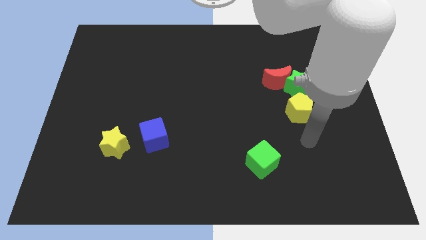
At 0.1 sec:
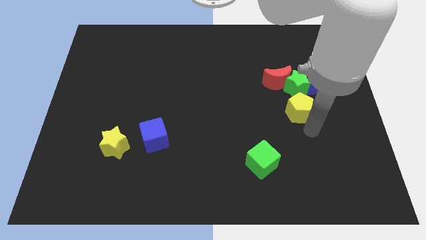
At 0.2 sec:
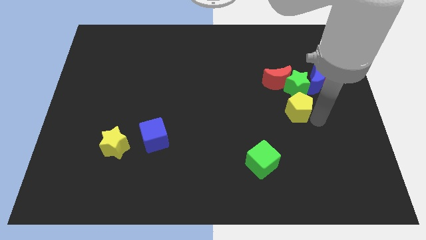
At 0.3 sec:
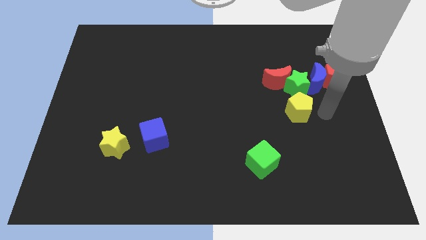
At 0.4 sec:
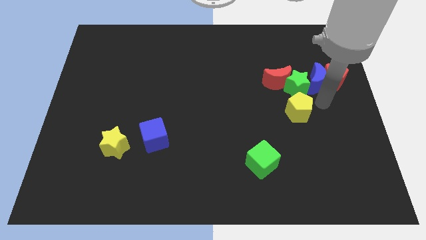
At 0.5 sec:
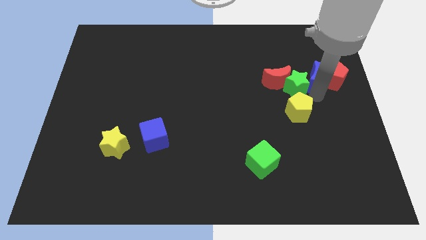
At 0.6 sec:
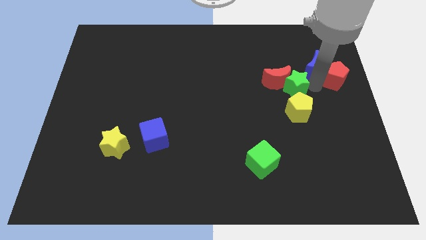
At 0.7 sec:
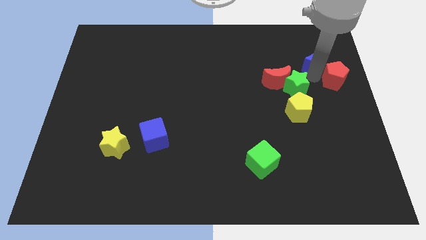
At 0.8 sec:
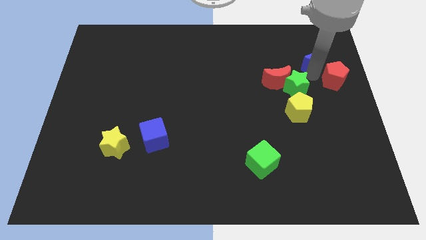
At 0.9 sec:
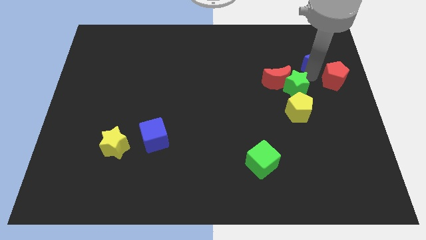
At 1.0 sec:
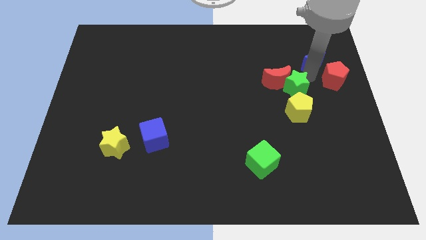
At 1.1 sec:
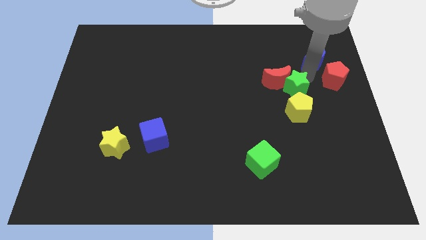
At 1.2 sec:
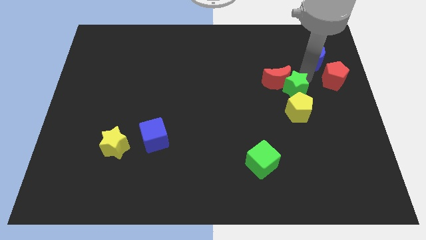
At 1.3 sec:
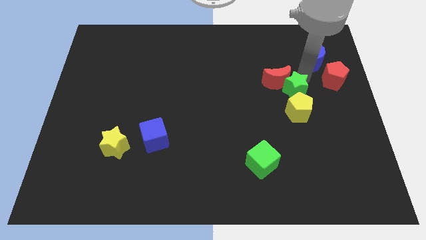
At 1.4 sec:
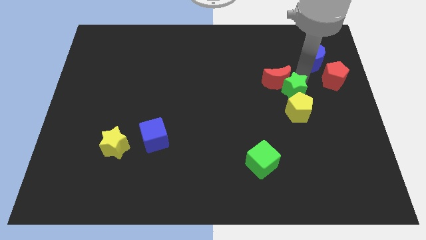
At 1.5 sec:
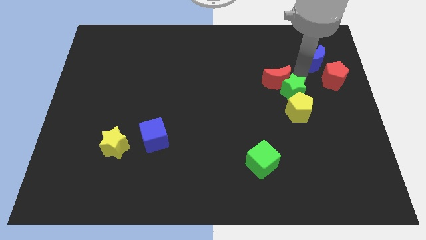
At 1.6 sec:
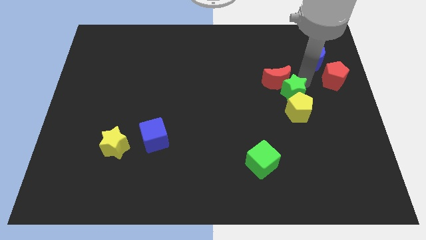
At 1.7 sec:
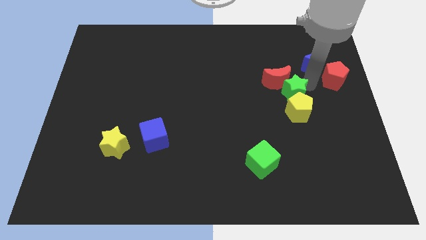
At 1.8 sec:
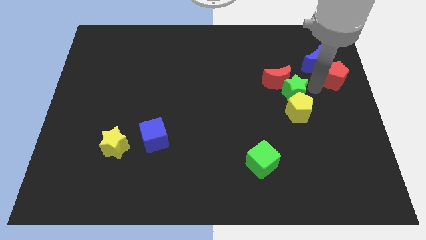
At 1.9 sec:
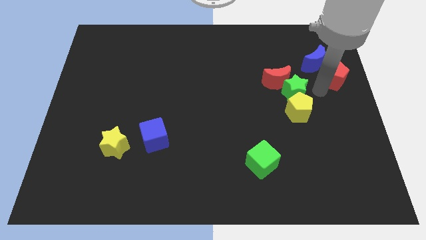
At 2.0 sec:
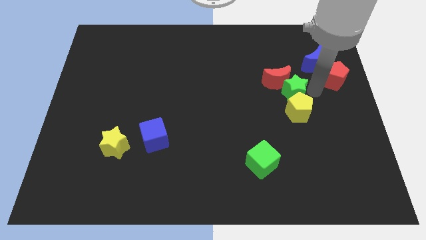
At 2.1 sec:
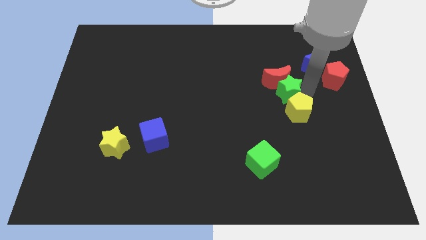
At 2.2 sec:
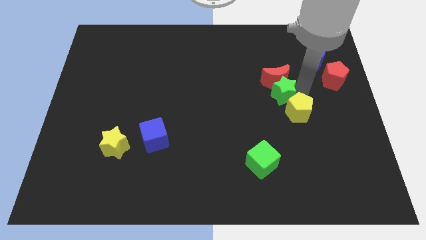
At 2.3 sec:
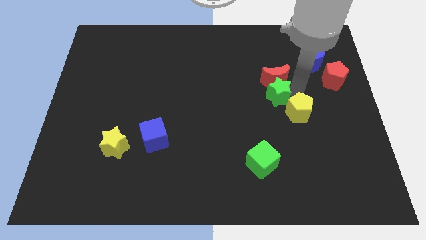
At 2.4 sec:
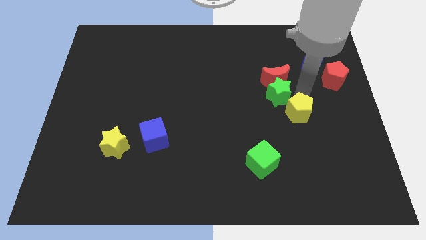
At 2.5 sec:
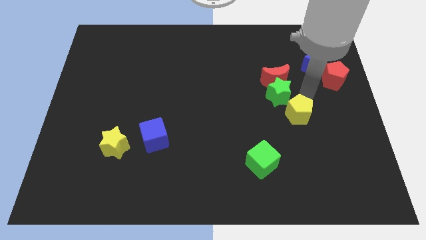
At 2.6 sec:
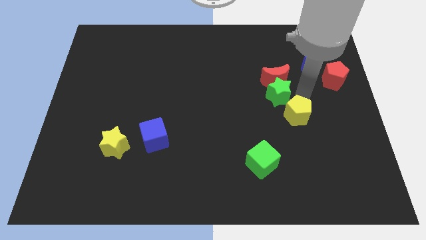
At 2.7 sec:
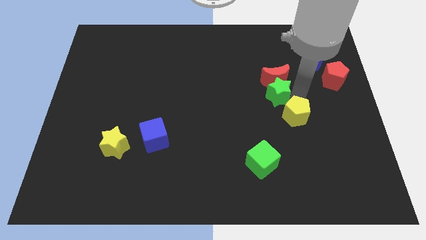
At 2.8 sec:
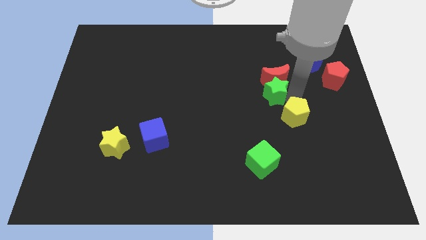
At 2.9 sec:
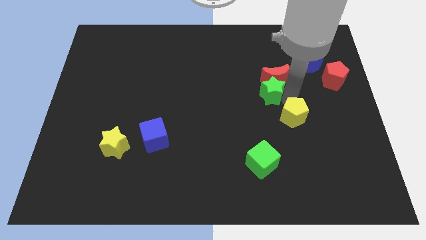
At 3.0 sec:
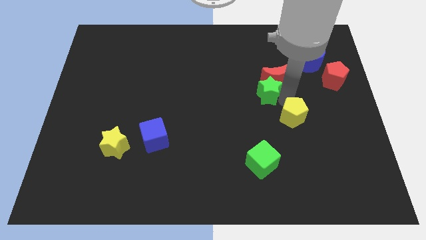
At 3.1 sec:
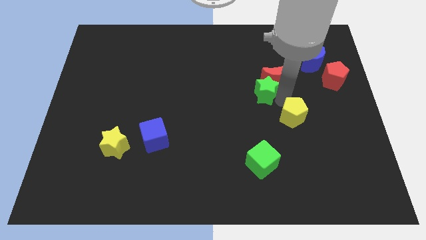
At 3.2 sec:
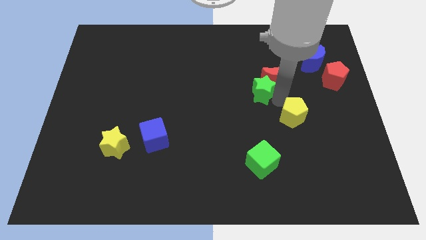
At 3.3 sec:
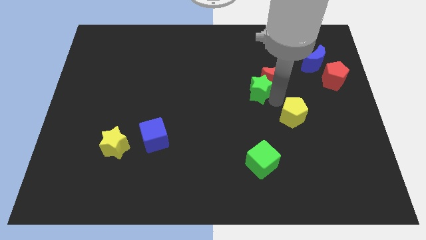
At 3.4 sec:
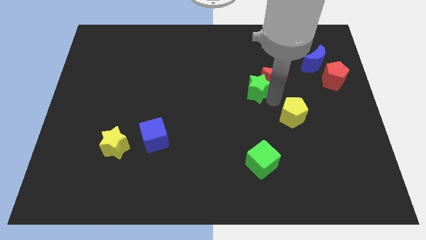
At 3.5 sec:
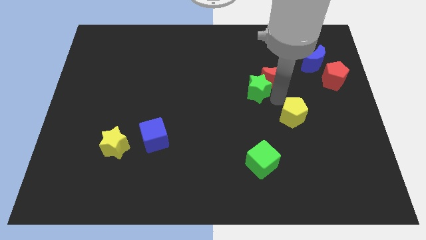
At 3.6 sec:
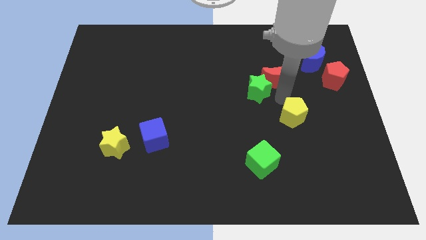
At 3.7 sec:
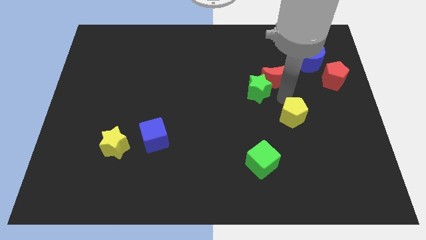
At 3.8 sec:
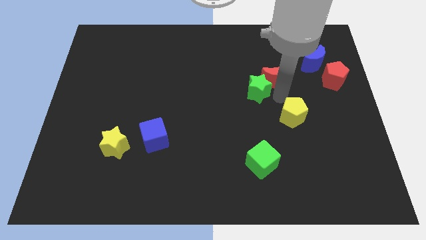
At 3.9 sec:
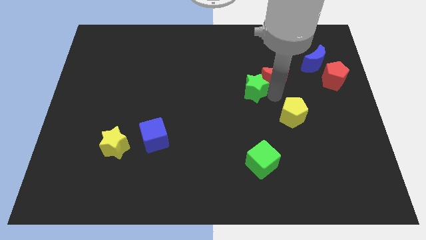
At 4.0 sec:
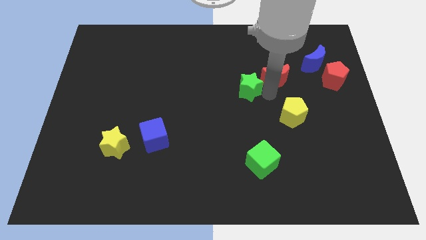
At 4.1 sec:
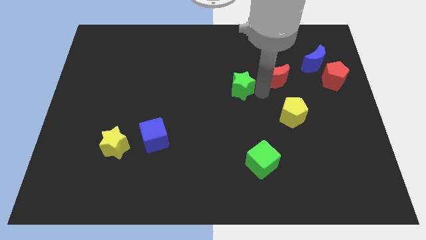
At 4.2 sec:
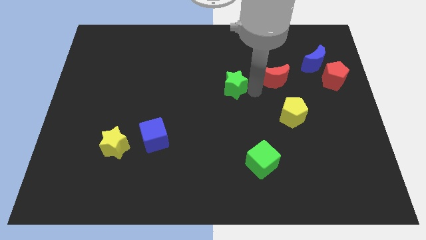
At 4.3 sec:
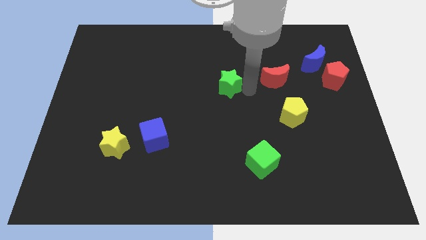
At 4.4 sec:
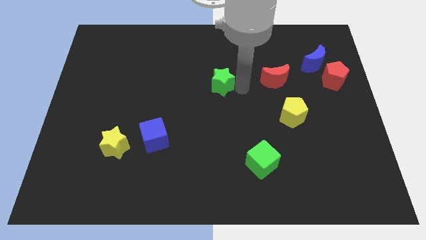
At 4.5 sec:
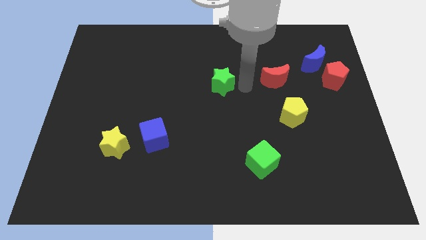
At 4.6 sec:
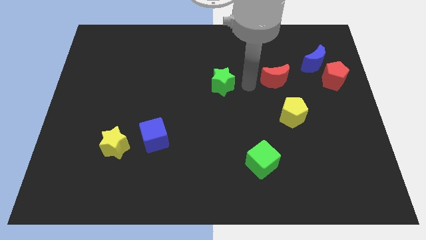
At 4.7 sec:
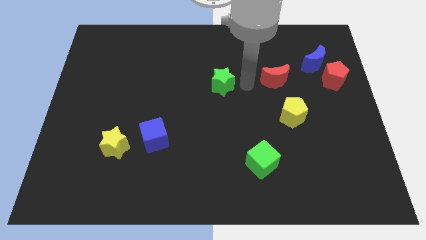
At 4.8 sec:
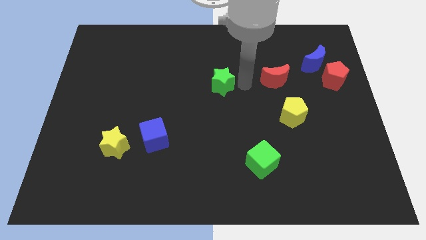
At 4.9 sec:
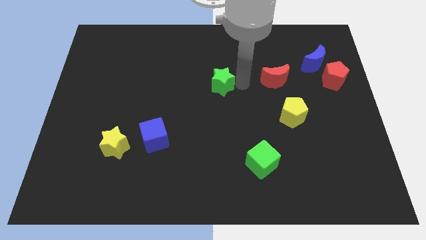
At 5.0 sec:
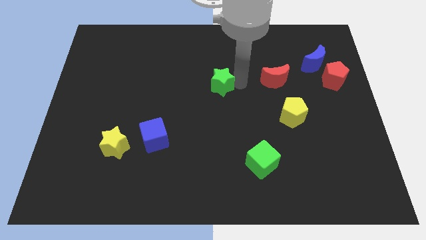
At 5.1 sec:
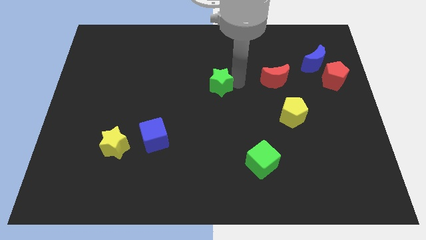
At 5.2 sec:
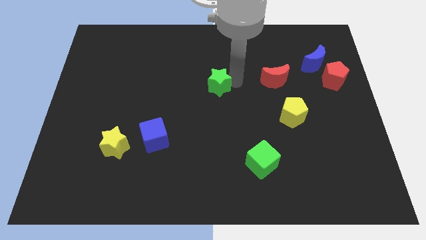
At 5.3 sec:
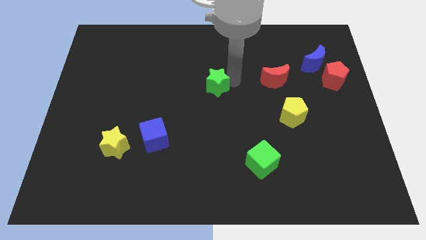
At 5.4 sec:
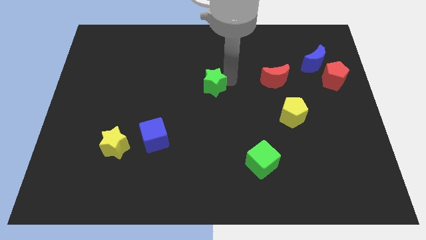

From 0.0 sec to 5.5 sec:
push the green star left

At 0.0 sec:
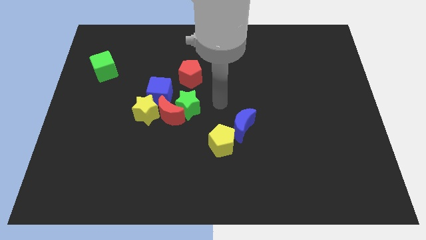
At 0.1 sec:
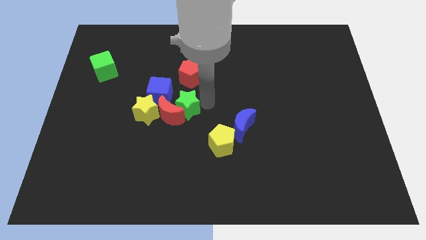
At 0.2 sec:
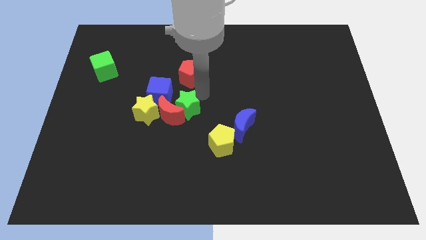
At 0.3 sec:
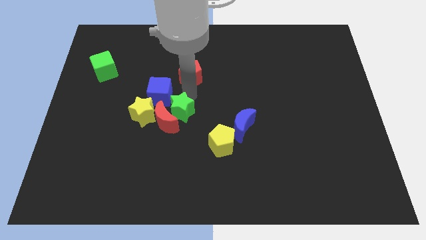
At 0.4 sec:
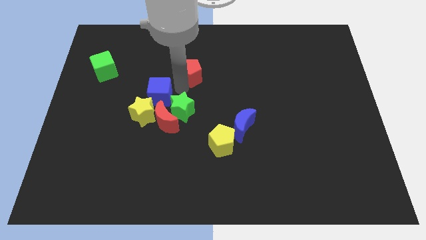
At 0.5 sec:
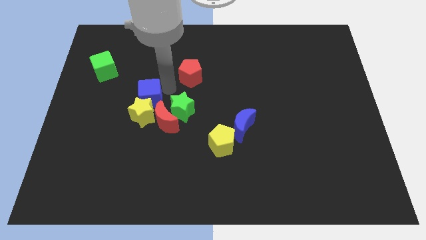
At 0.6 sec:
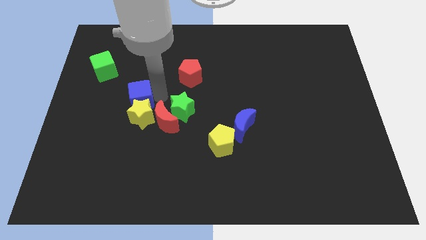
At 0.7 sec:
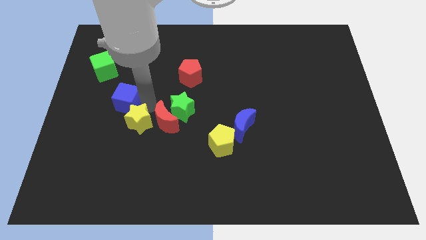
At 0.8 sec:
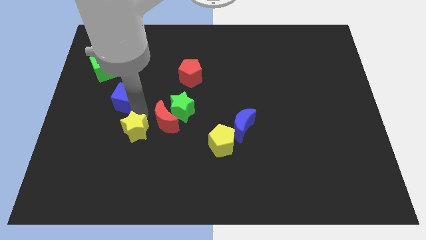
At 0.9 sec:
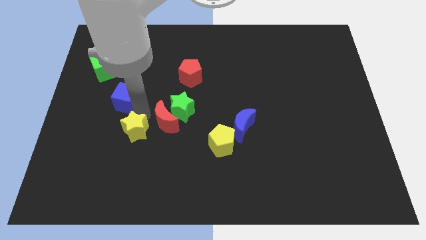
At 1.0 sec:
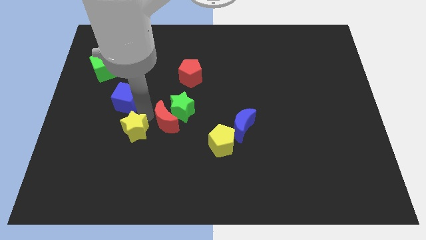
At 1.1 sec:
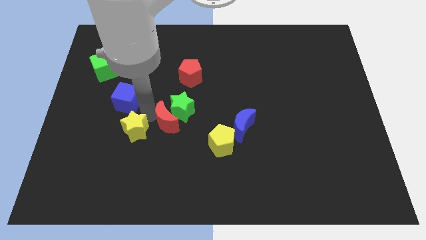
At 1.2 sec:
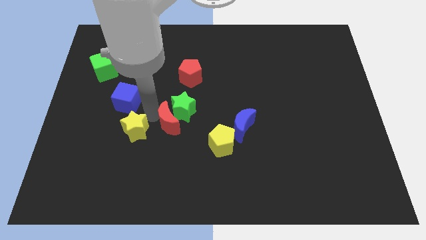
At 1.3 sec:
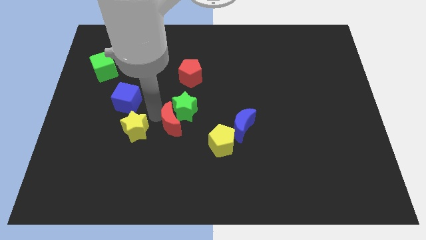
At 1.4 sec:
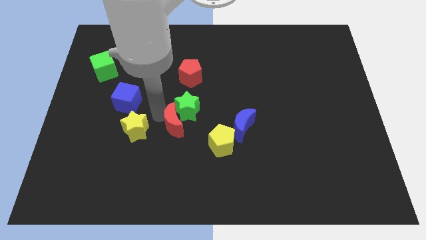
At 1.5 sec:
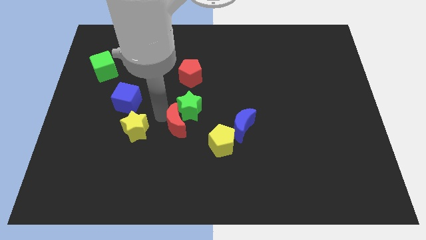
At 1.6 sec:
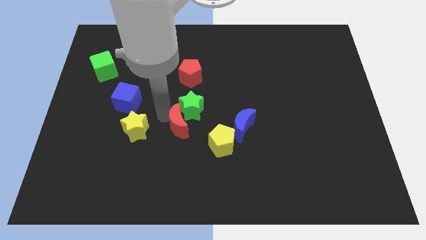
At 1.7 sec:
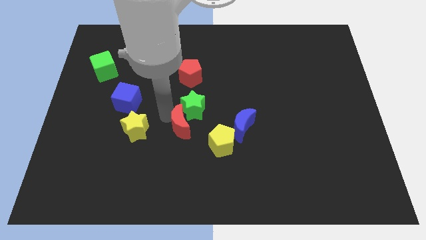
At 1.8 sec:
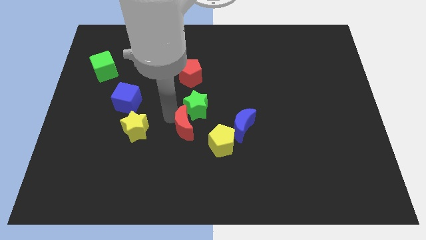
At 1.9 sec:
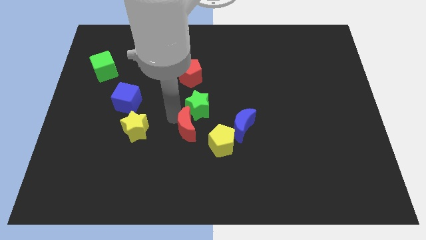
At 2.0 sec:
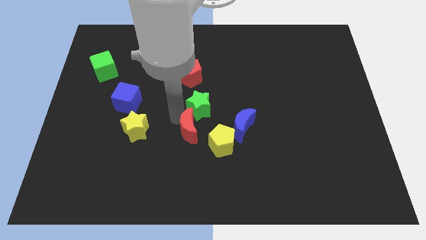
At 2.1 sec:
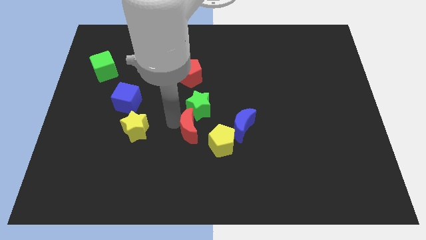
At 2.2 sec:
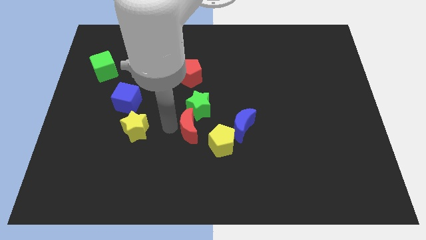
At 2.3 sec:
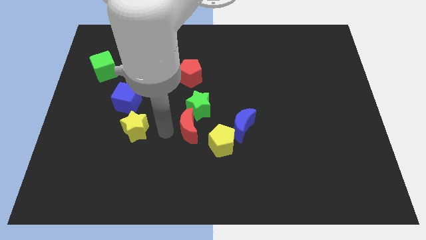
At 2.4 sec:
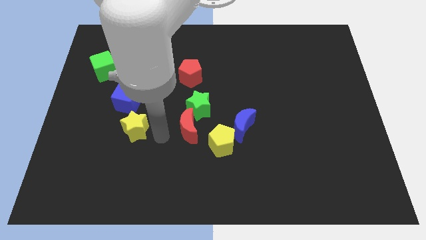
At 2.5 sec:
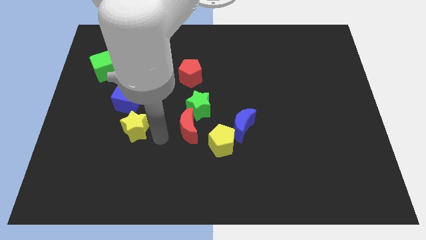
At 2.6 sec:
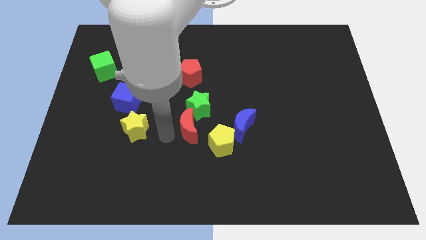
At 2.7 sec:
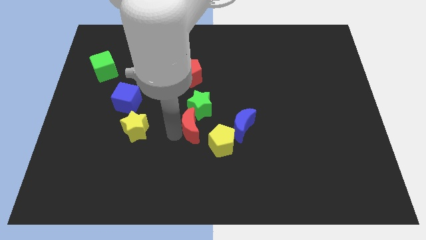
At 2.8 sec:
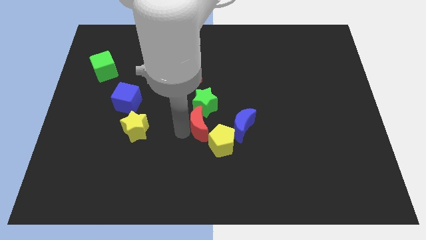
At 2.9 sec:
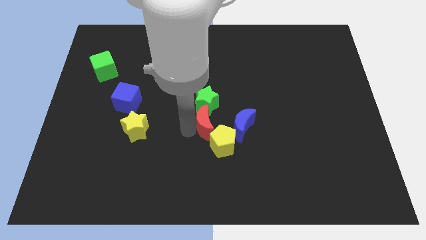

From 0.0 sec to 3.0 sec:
slide the red moon a bit right
